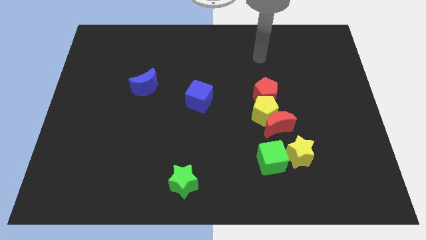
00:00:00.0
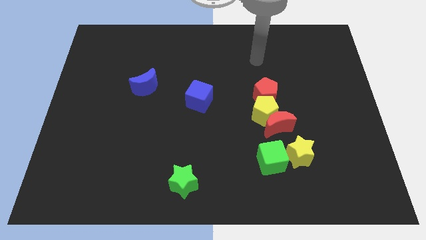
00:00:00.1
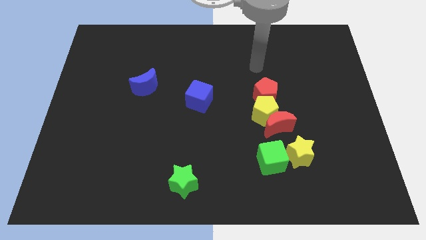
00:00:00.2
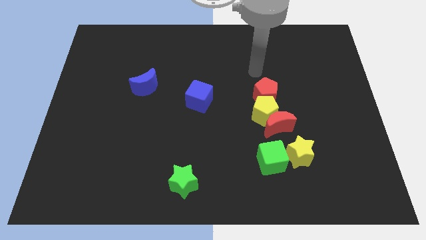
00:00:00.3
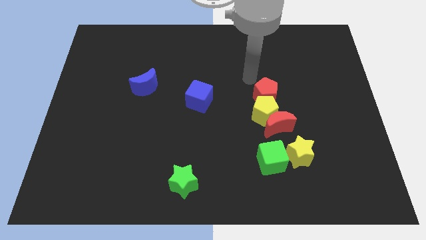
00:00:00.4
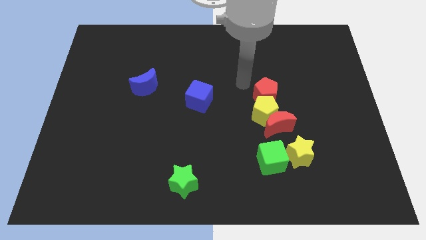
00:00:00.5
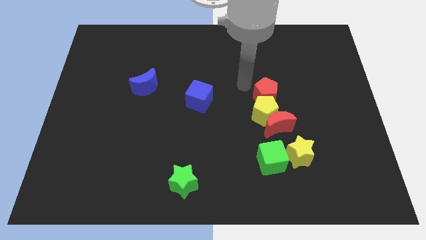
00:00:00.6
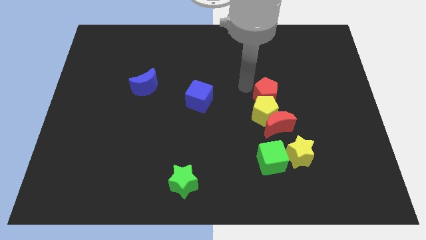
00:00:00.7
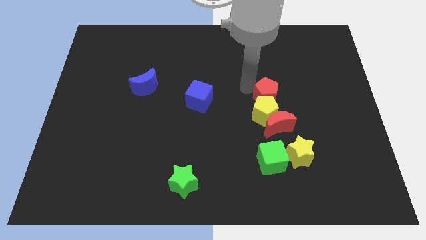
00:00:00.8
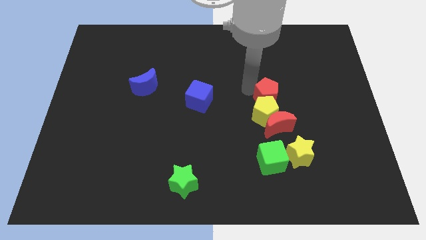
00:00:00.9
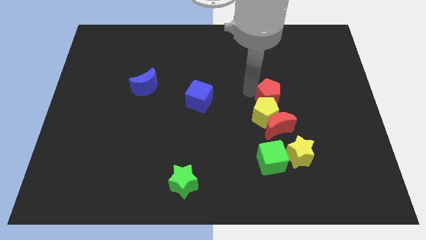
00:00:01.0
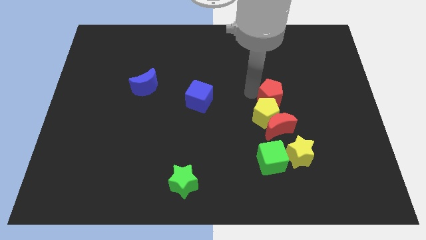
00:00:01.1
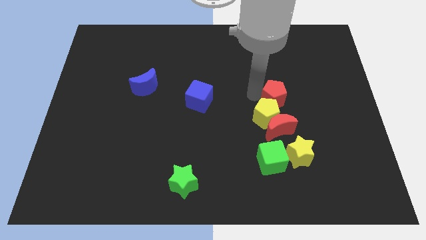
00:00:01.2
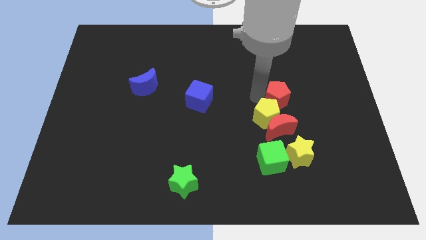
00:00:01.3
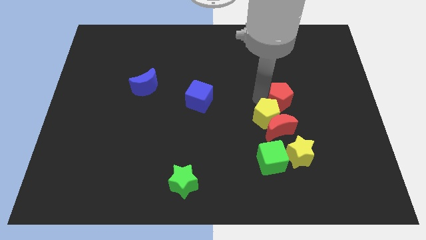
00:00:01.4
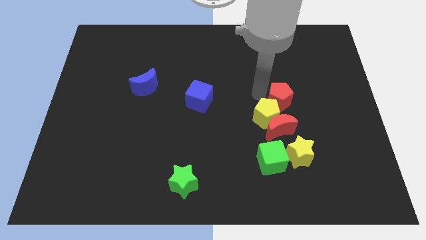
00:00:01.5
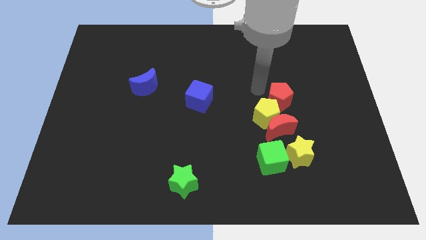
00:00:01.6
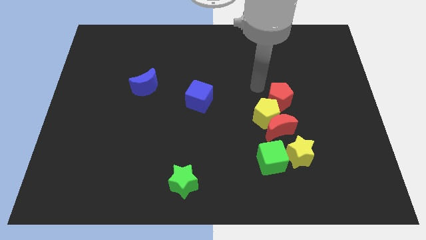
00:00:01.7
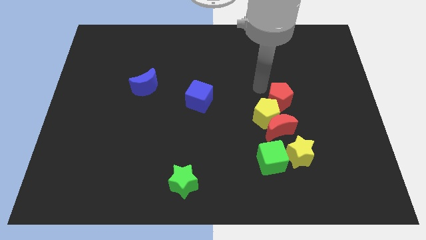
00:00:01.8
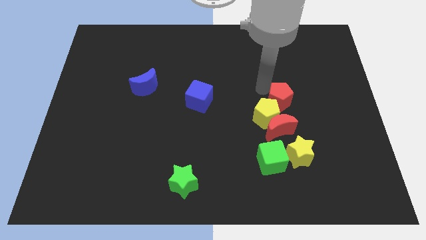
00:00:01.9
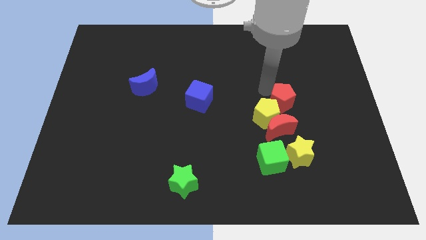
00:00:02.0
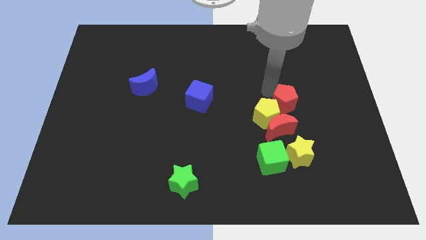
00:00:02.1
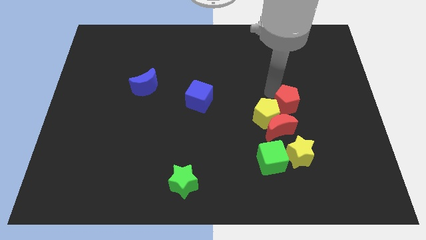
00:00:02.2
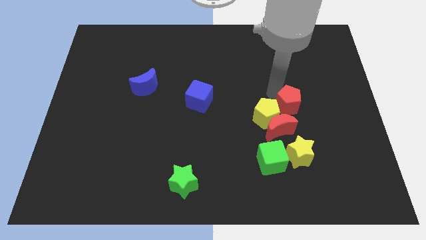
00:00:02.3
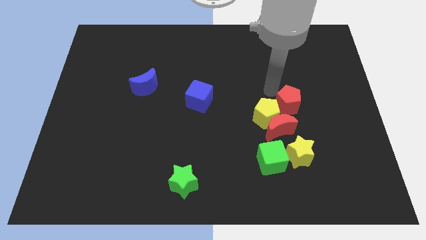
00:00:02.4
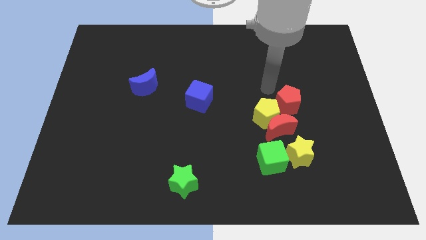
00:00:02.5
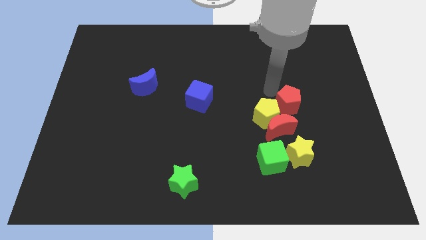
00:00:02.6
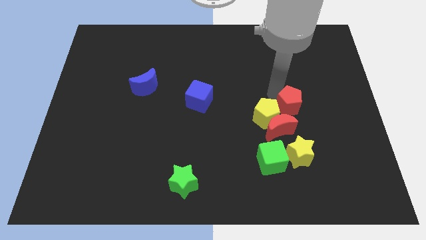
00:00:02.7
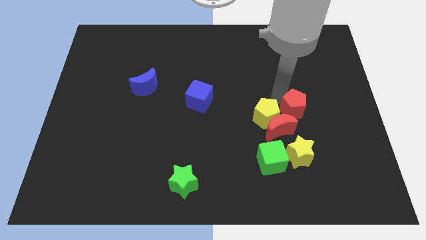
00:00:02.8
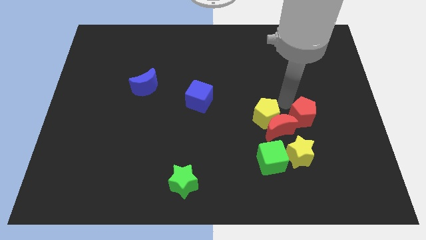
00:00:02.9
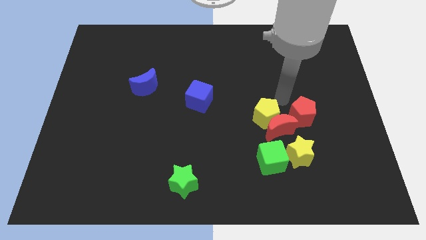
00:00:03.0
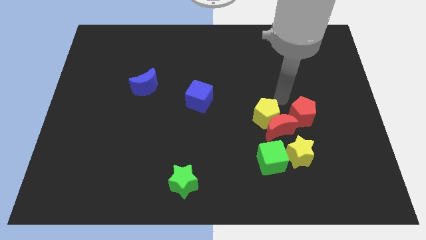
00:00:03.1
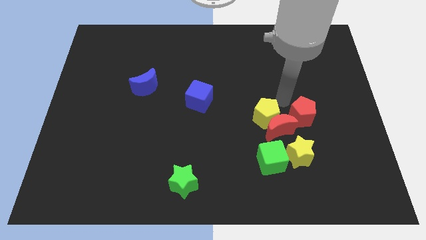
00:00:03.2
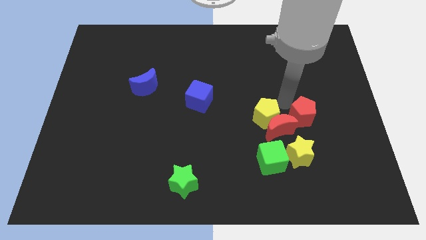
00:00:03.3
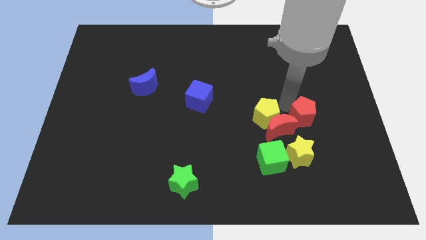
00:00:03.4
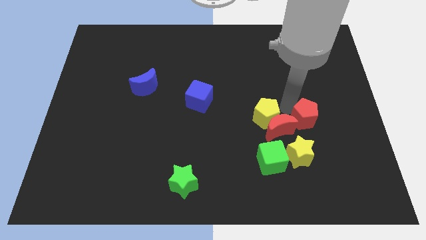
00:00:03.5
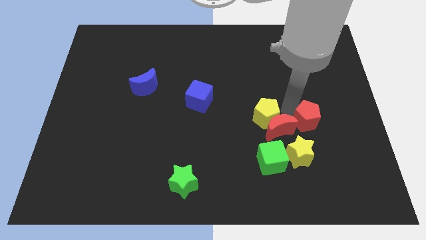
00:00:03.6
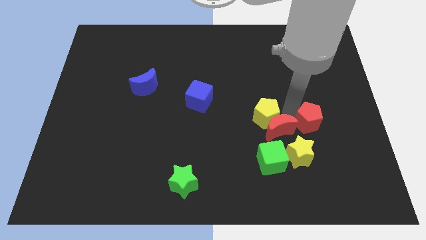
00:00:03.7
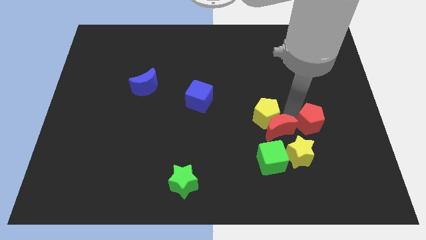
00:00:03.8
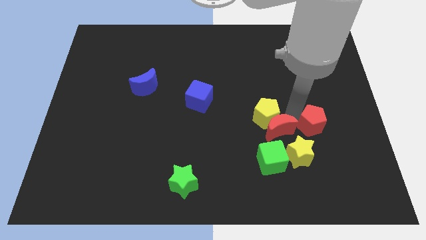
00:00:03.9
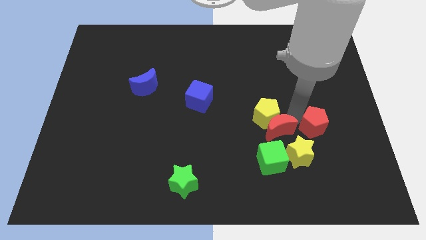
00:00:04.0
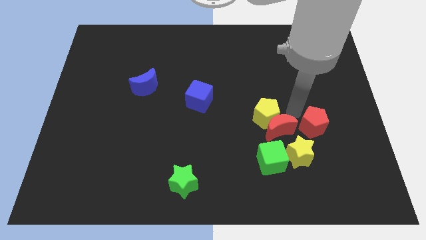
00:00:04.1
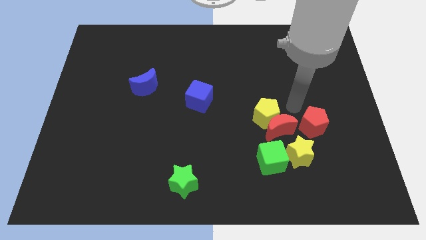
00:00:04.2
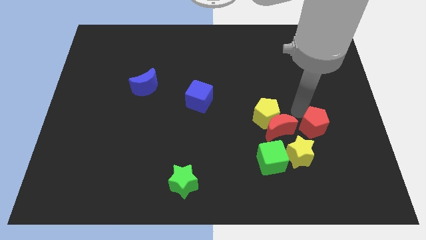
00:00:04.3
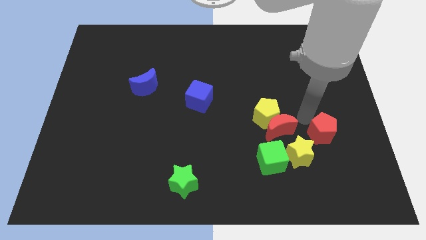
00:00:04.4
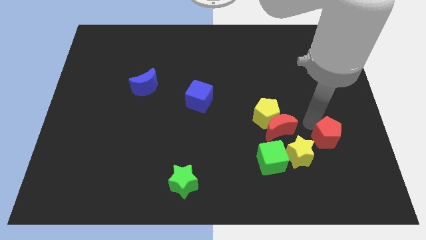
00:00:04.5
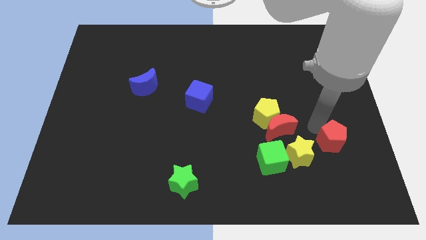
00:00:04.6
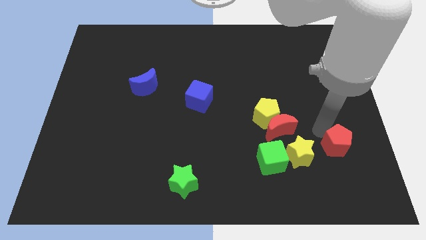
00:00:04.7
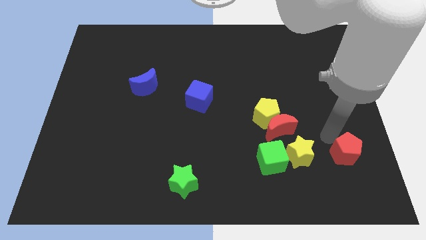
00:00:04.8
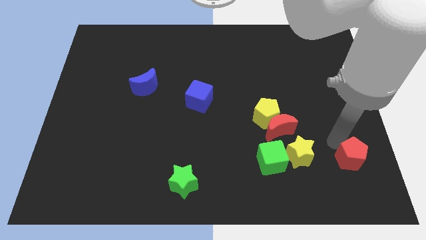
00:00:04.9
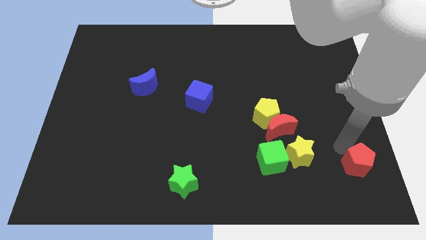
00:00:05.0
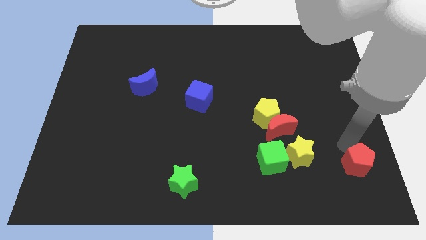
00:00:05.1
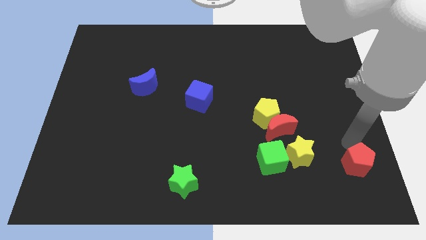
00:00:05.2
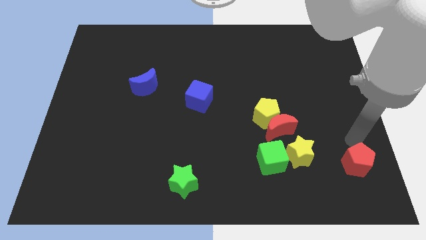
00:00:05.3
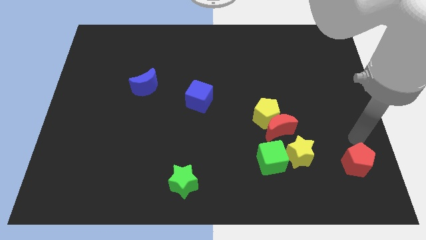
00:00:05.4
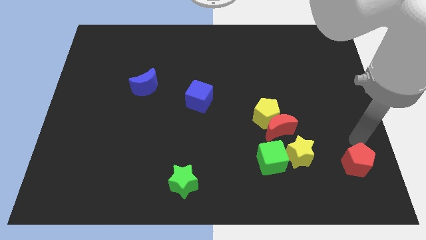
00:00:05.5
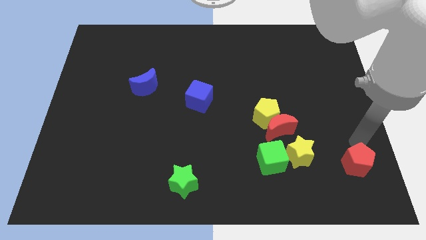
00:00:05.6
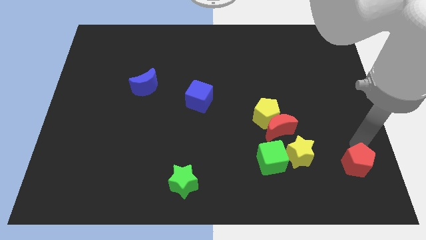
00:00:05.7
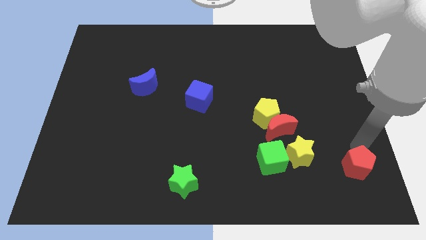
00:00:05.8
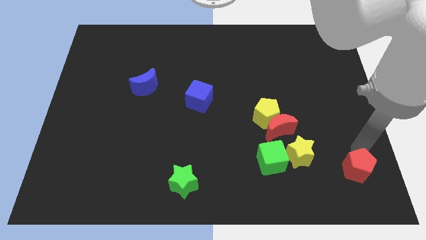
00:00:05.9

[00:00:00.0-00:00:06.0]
slide the red pentagon to the bottom right

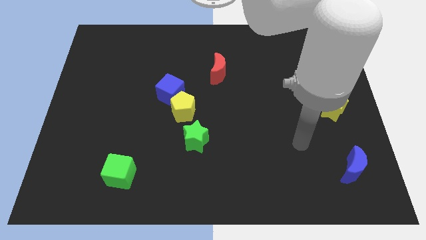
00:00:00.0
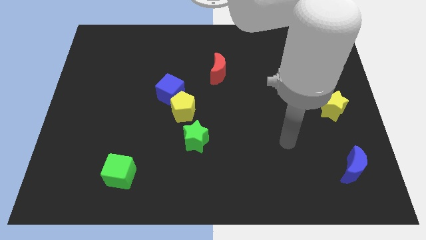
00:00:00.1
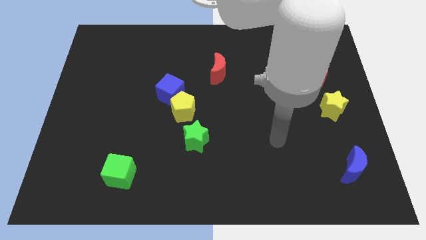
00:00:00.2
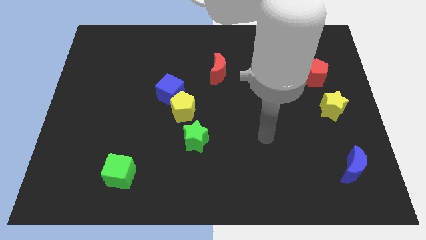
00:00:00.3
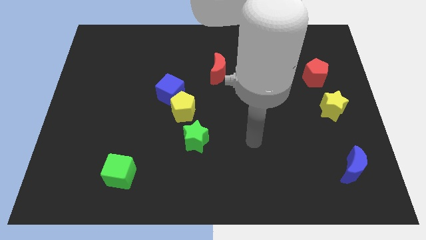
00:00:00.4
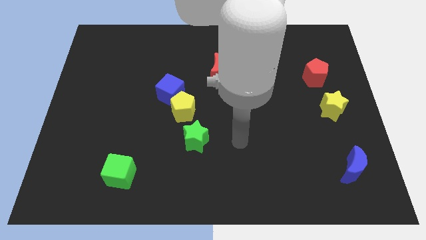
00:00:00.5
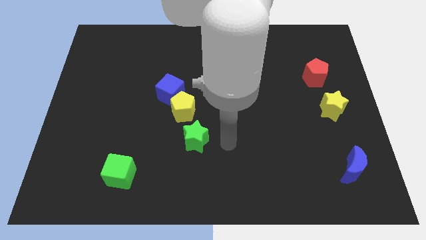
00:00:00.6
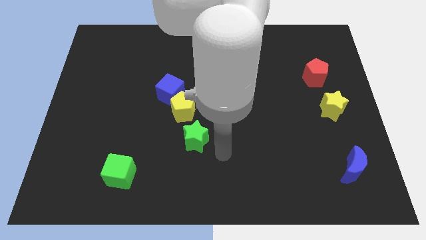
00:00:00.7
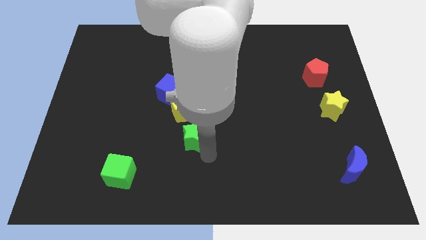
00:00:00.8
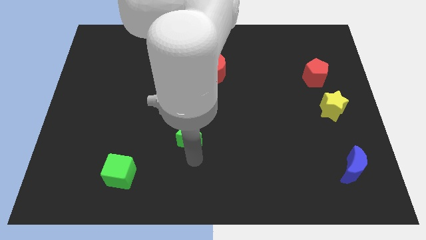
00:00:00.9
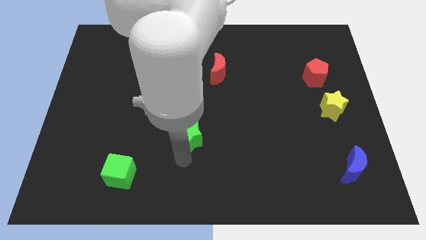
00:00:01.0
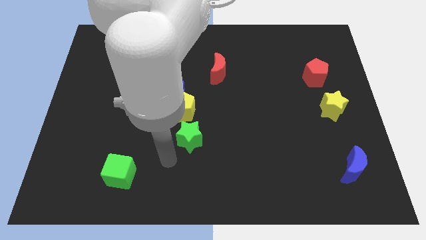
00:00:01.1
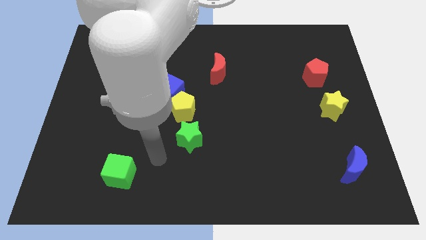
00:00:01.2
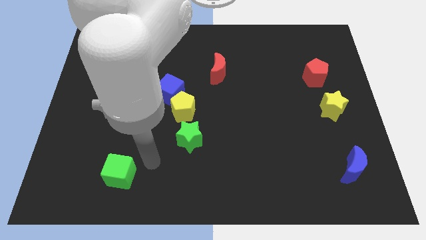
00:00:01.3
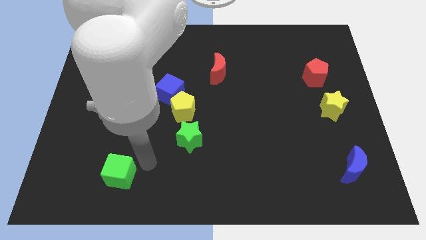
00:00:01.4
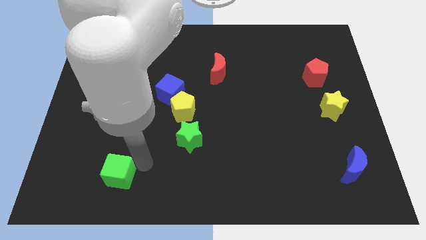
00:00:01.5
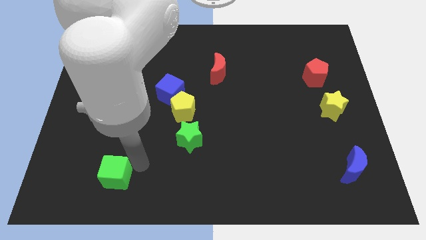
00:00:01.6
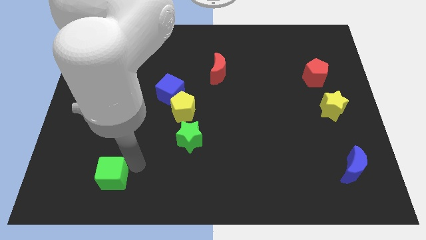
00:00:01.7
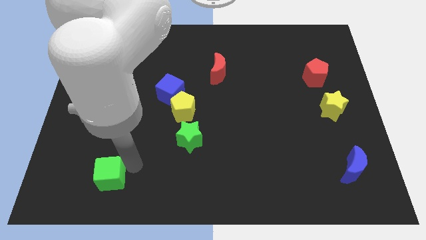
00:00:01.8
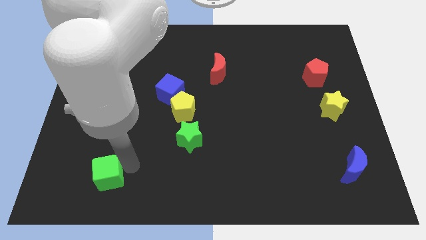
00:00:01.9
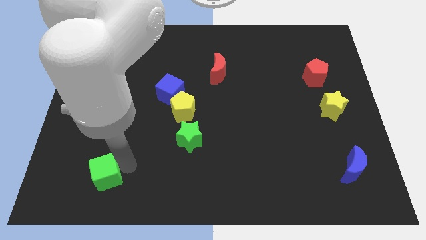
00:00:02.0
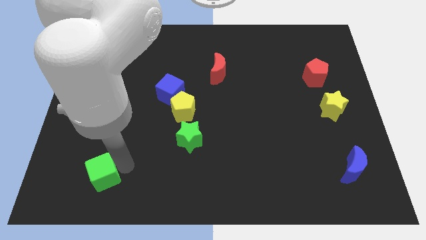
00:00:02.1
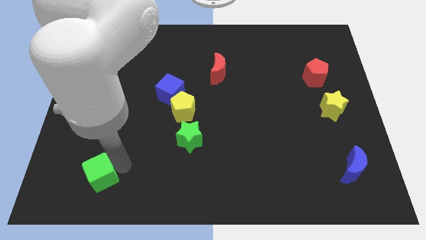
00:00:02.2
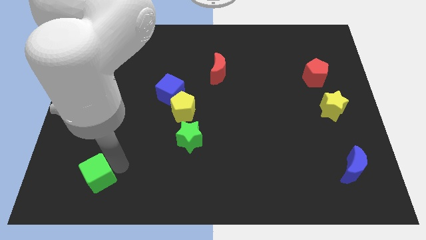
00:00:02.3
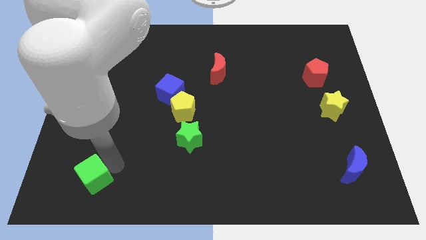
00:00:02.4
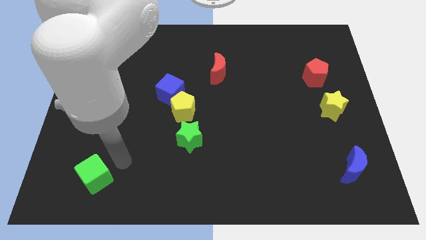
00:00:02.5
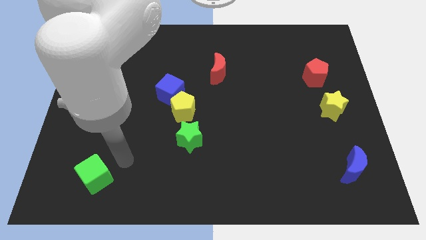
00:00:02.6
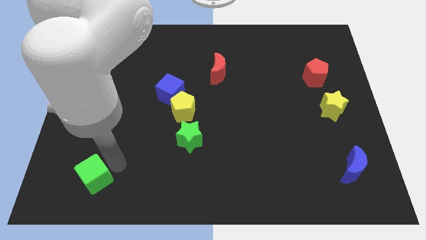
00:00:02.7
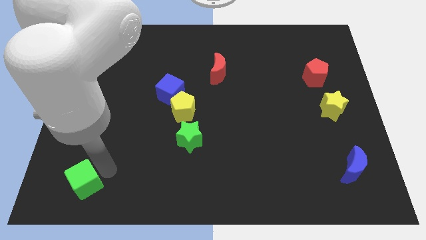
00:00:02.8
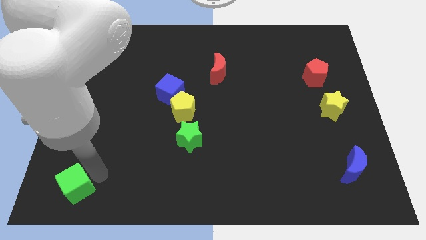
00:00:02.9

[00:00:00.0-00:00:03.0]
slide the green cube to the bottom left
